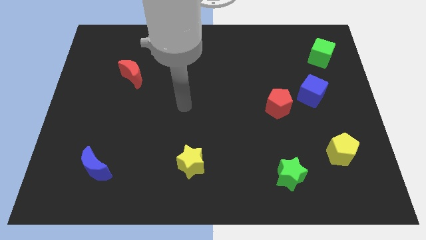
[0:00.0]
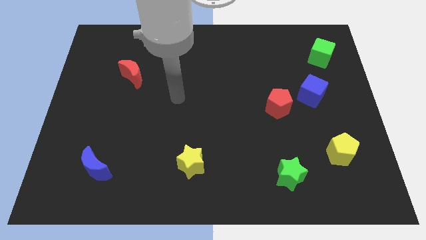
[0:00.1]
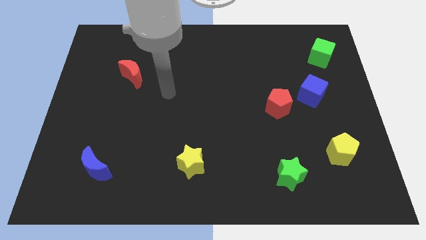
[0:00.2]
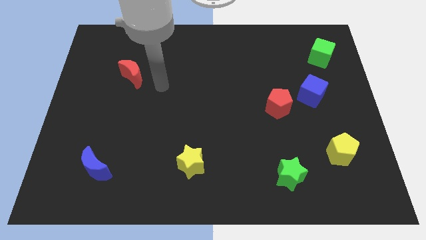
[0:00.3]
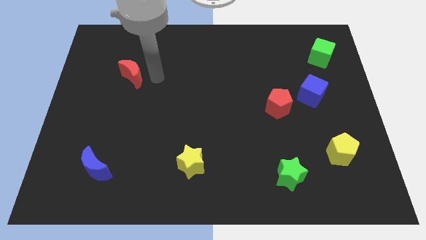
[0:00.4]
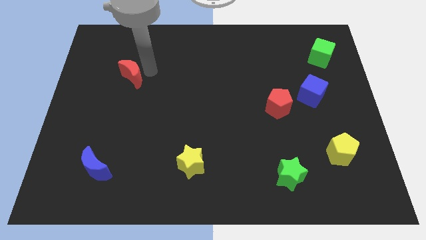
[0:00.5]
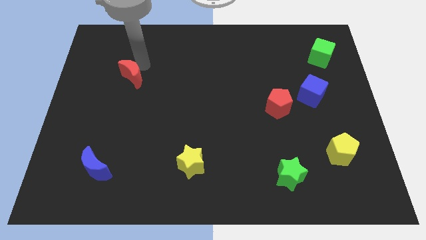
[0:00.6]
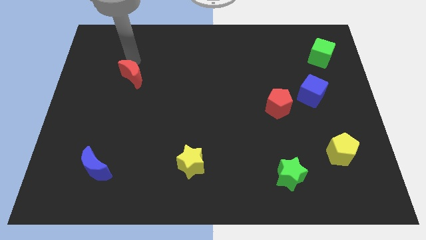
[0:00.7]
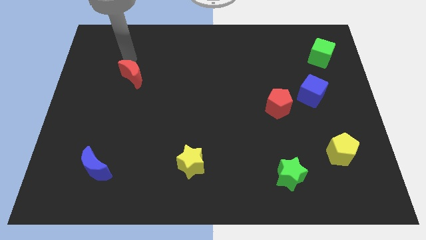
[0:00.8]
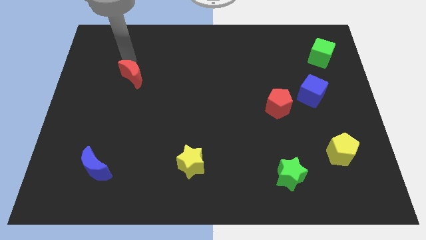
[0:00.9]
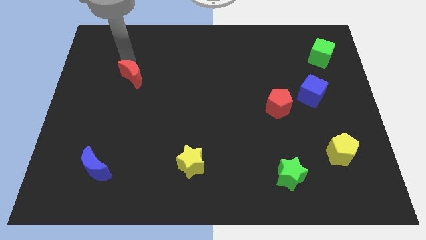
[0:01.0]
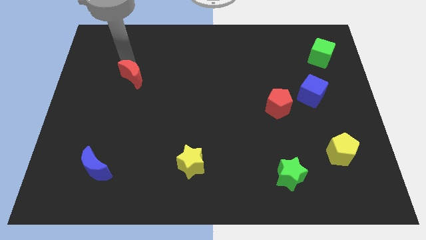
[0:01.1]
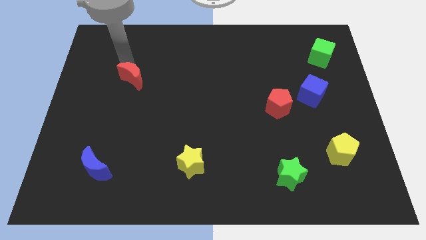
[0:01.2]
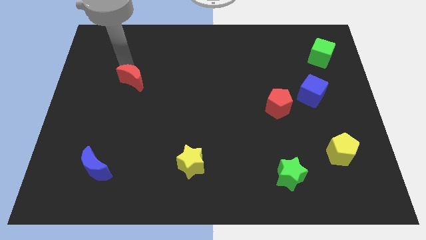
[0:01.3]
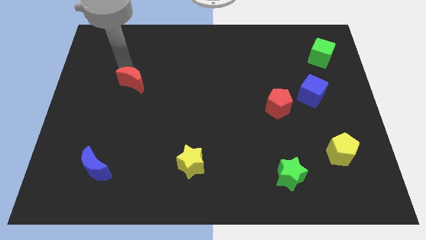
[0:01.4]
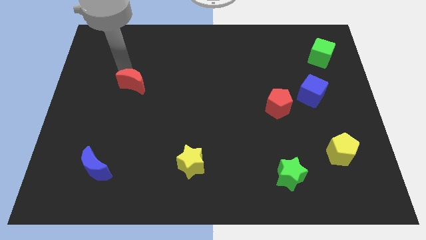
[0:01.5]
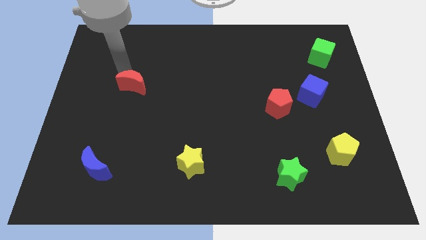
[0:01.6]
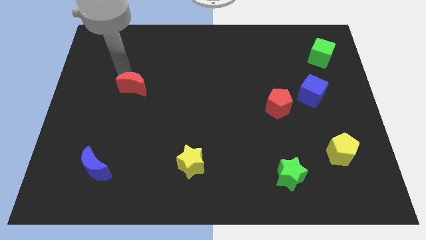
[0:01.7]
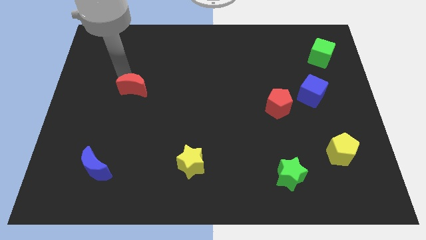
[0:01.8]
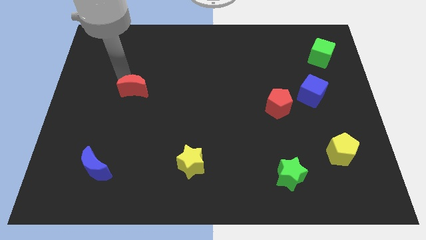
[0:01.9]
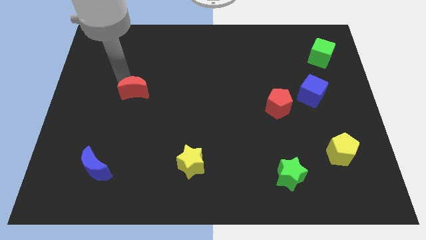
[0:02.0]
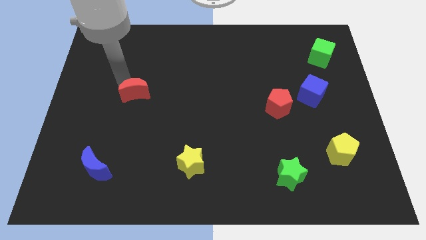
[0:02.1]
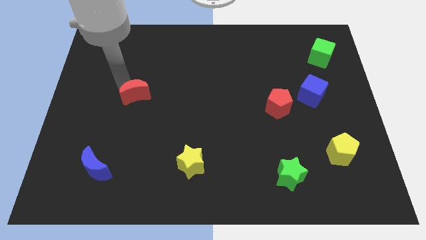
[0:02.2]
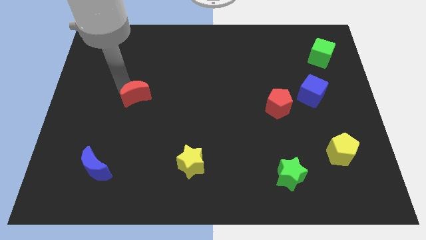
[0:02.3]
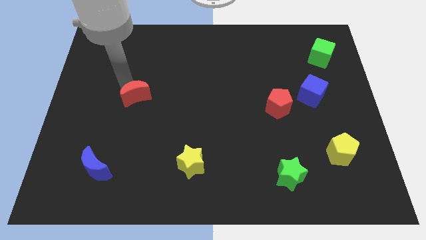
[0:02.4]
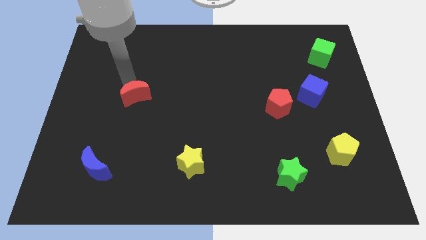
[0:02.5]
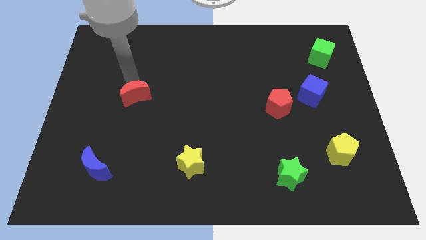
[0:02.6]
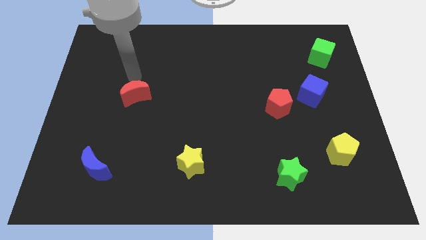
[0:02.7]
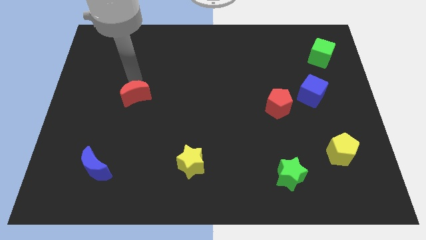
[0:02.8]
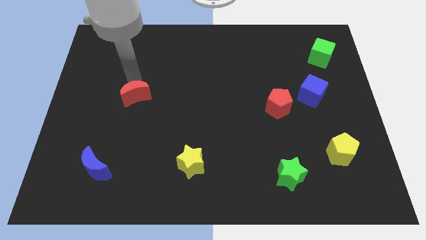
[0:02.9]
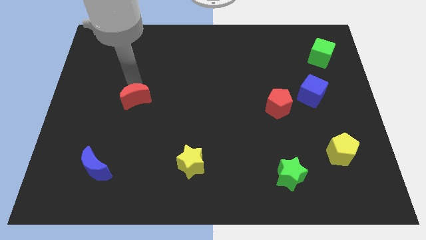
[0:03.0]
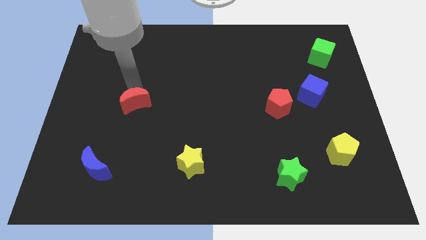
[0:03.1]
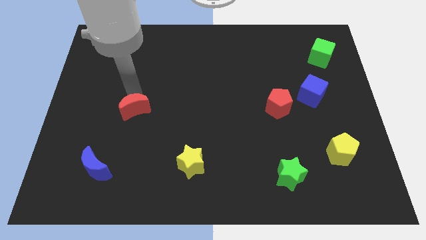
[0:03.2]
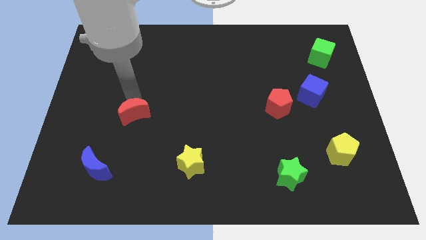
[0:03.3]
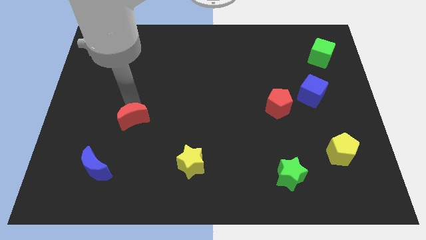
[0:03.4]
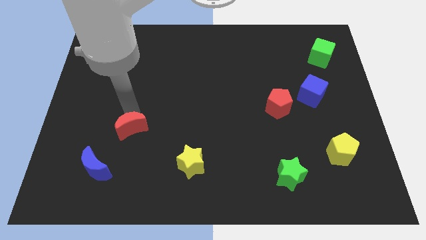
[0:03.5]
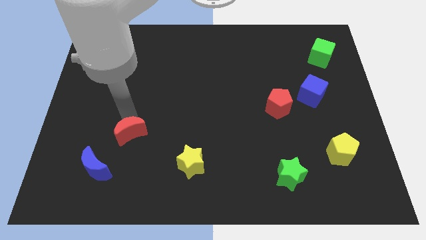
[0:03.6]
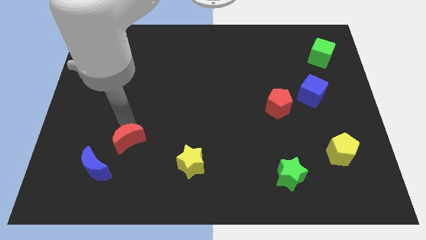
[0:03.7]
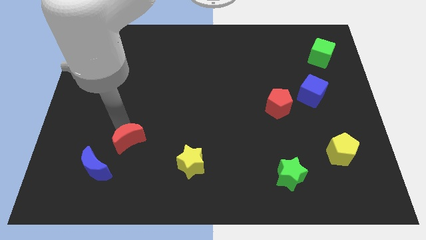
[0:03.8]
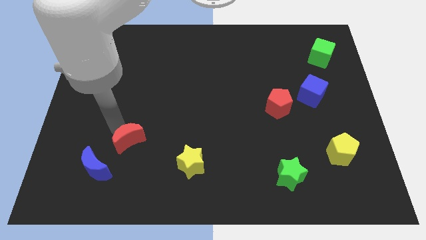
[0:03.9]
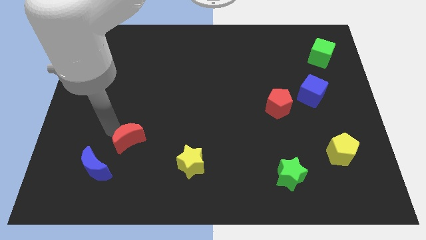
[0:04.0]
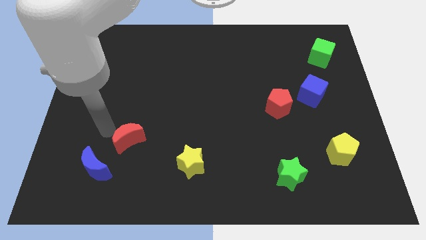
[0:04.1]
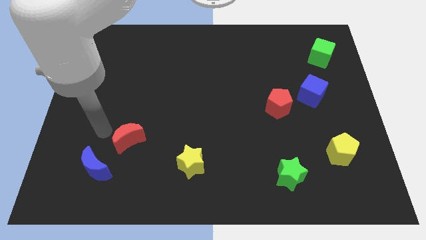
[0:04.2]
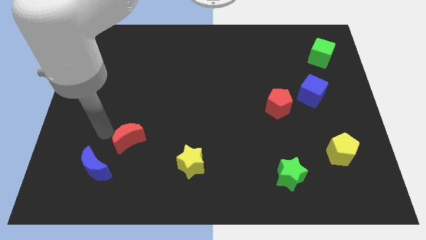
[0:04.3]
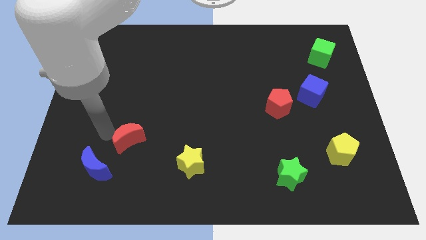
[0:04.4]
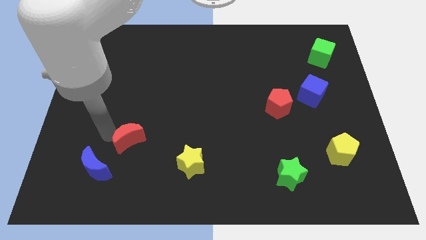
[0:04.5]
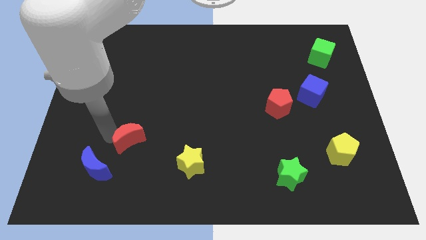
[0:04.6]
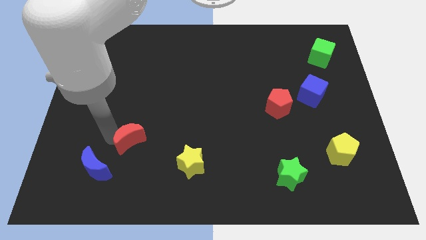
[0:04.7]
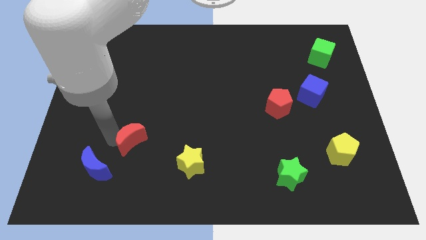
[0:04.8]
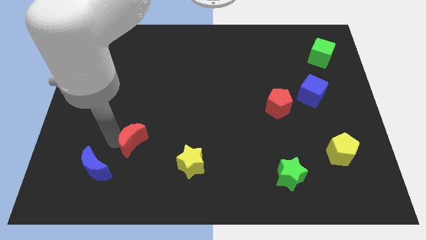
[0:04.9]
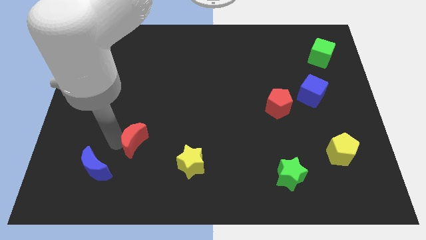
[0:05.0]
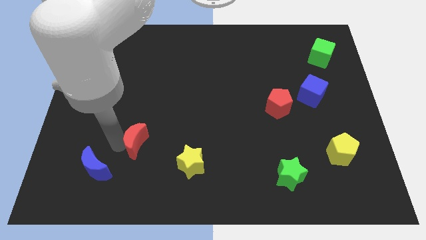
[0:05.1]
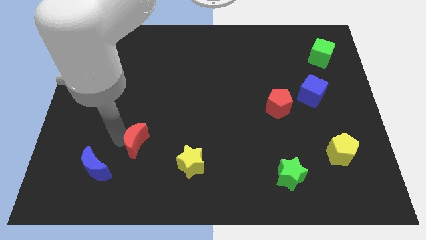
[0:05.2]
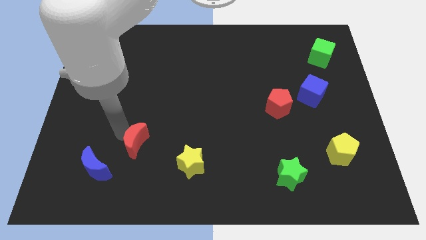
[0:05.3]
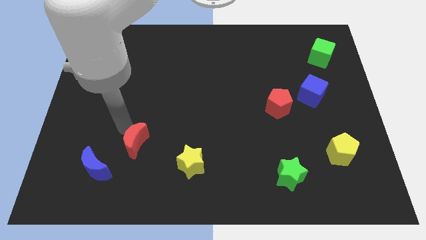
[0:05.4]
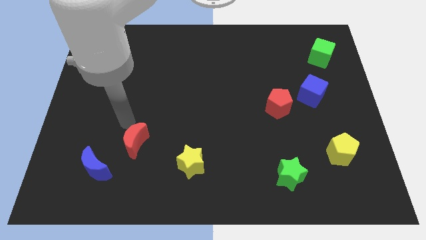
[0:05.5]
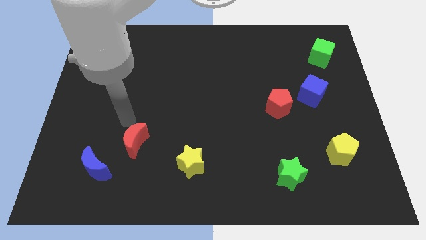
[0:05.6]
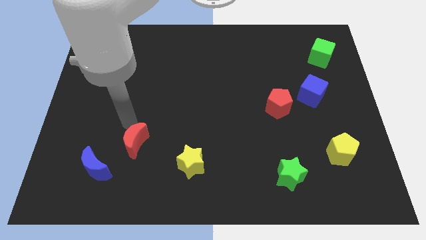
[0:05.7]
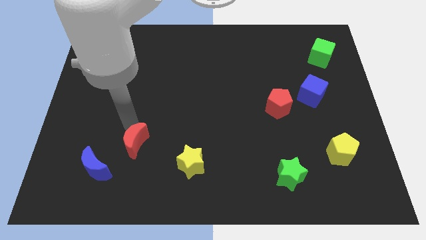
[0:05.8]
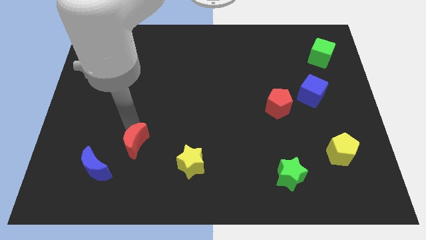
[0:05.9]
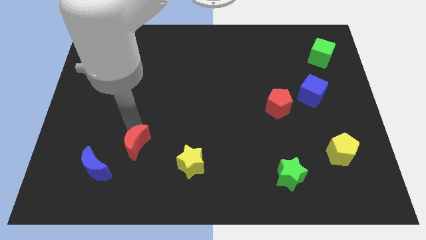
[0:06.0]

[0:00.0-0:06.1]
move the red moon to the left side of the yellow star

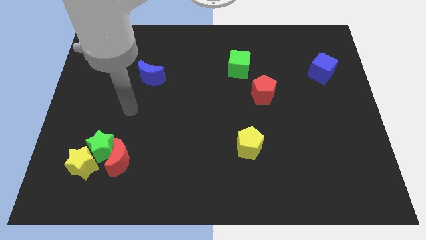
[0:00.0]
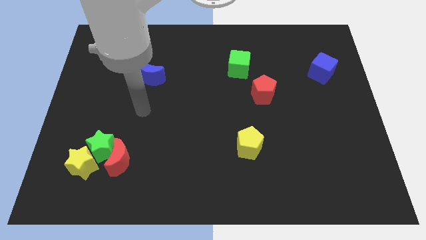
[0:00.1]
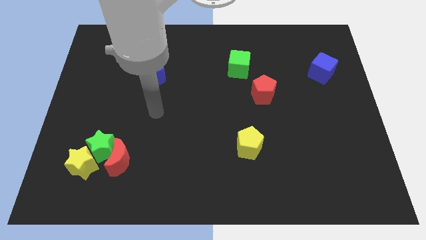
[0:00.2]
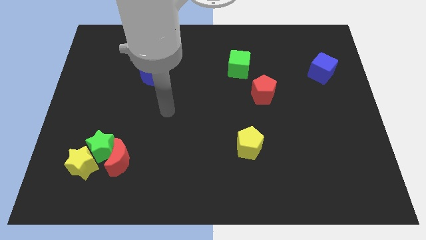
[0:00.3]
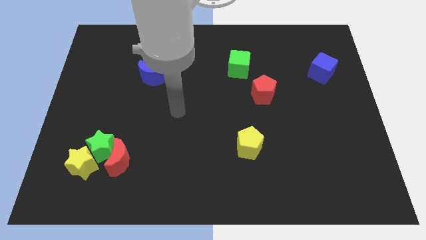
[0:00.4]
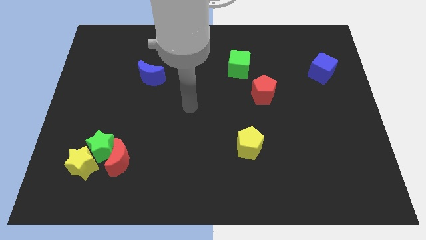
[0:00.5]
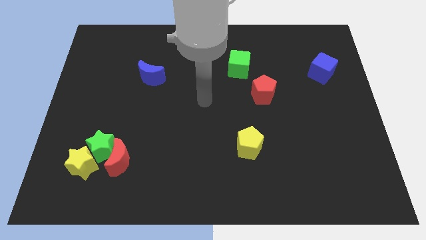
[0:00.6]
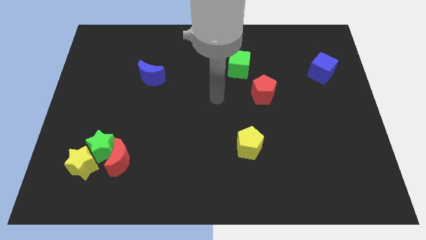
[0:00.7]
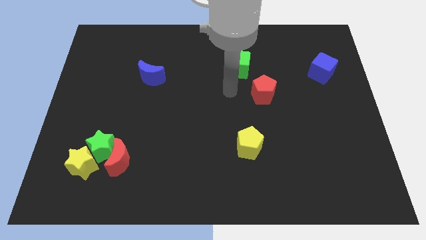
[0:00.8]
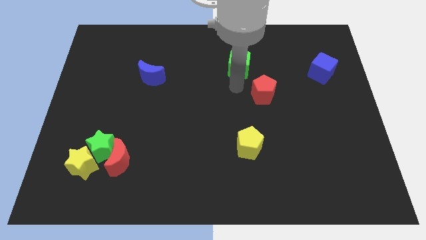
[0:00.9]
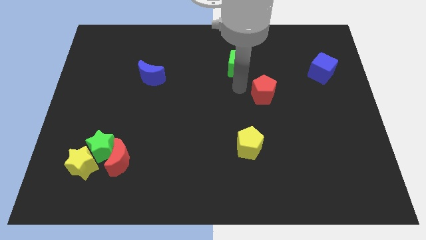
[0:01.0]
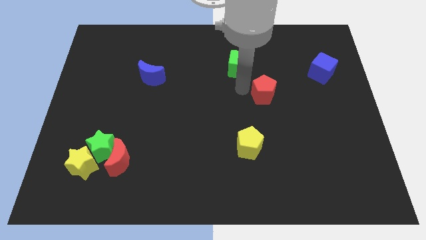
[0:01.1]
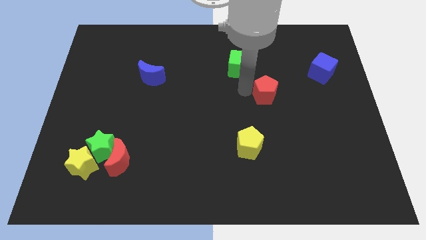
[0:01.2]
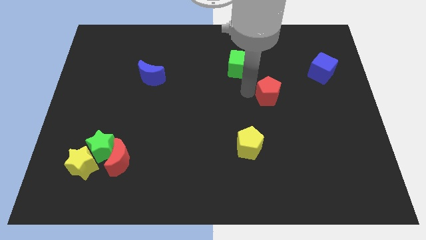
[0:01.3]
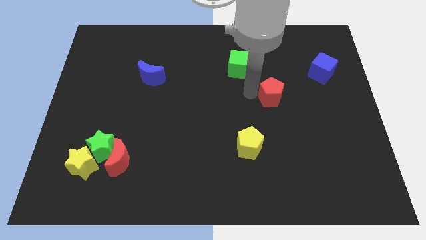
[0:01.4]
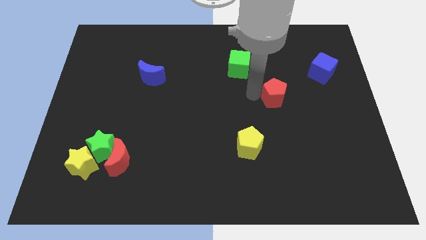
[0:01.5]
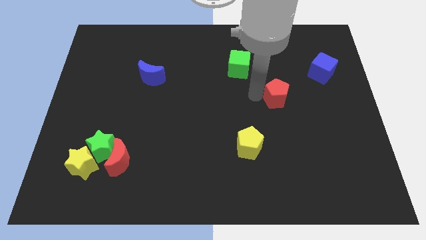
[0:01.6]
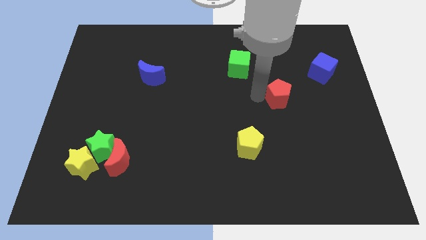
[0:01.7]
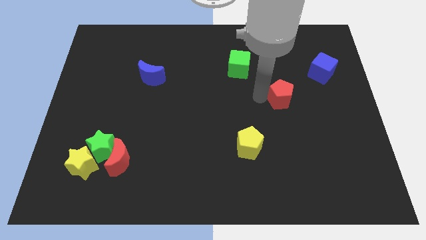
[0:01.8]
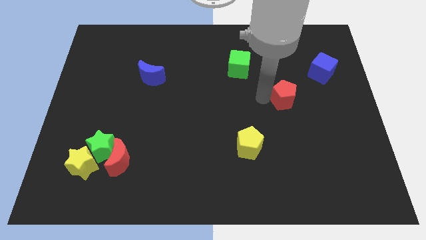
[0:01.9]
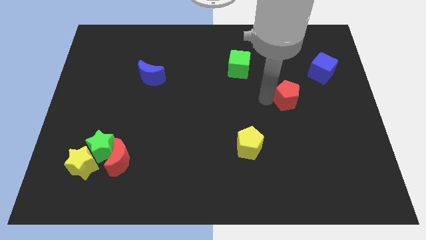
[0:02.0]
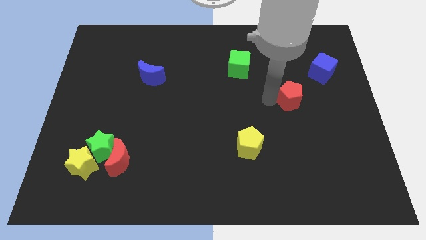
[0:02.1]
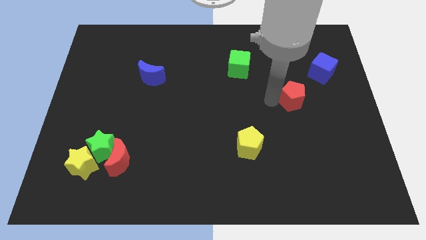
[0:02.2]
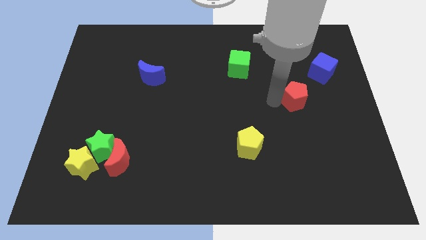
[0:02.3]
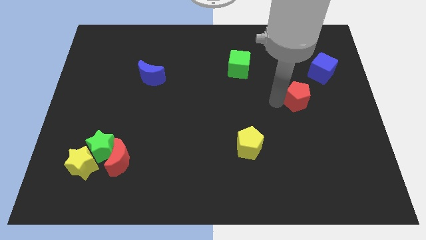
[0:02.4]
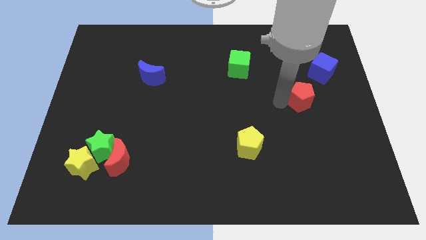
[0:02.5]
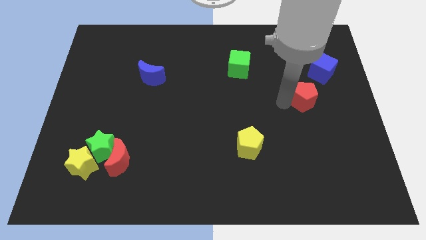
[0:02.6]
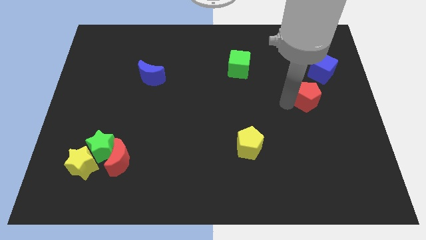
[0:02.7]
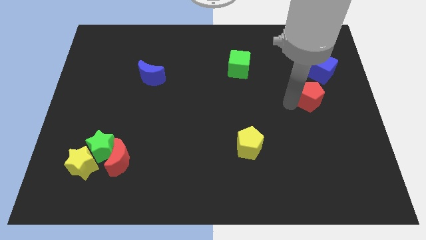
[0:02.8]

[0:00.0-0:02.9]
move the red pentagon to the bottom side of the blue cube
